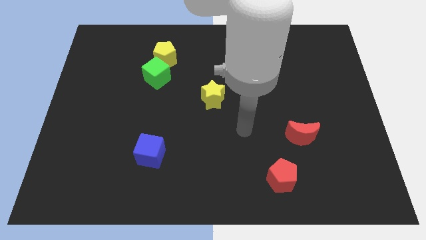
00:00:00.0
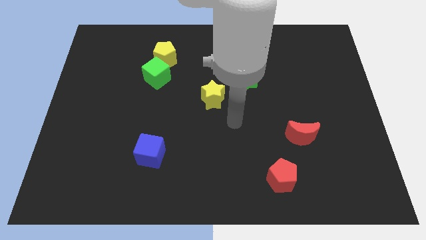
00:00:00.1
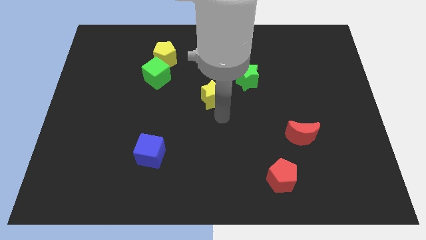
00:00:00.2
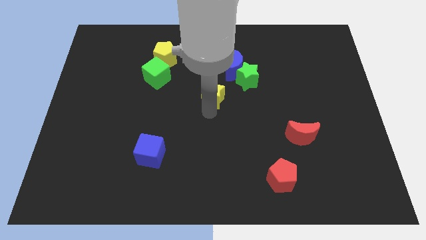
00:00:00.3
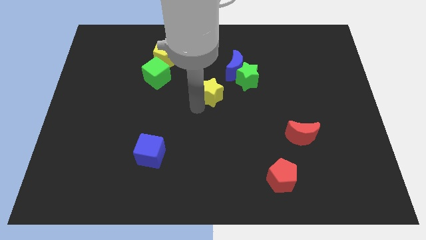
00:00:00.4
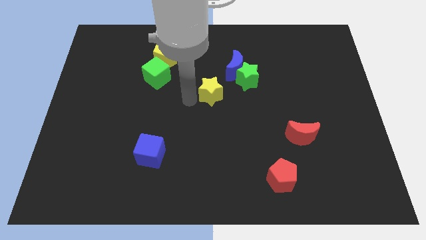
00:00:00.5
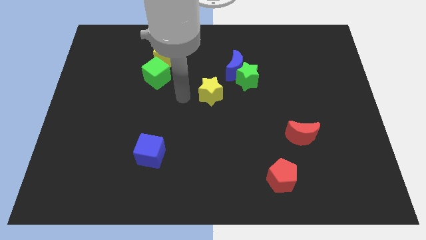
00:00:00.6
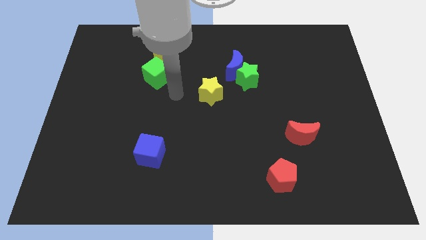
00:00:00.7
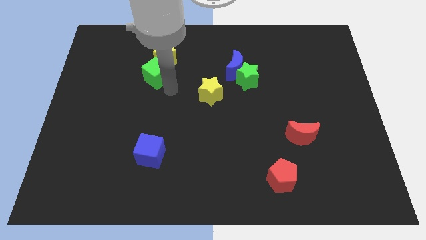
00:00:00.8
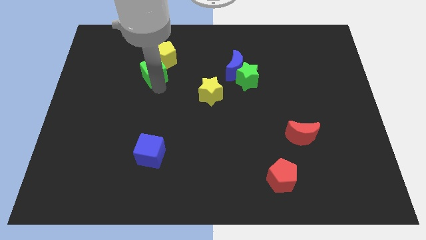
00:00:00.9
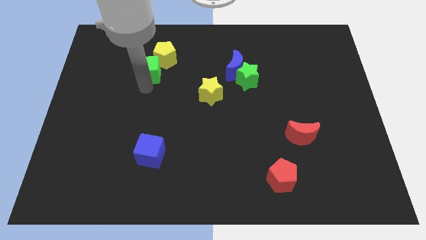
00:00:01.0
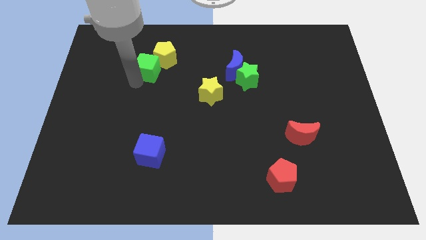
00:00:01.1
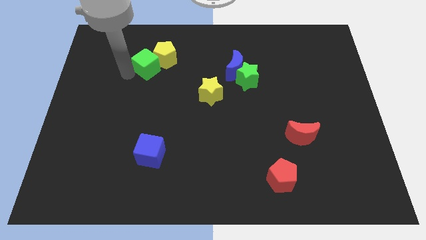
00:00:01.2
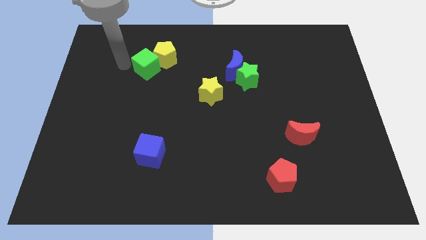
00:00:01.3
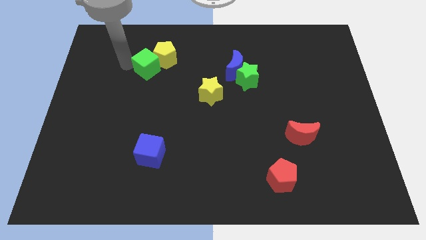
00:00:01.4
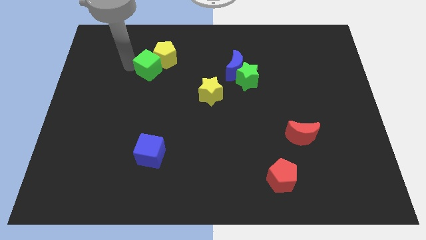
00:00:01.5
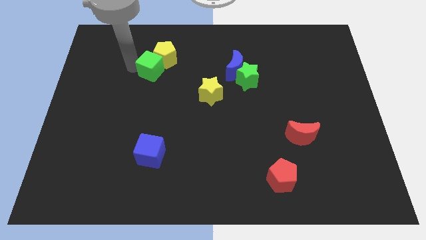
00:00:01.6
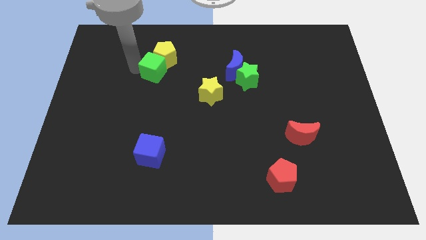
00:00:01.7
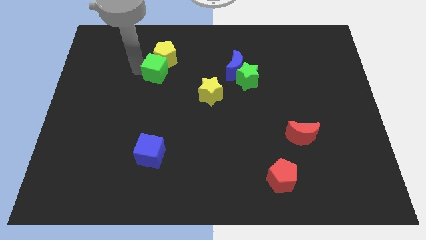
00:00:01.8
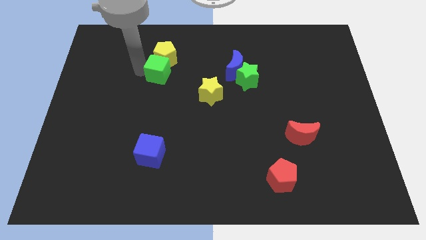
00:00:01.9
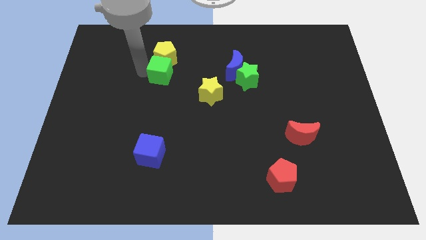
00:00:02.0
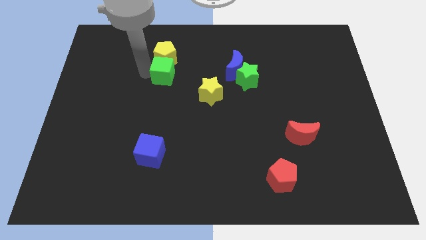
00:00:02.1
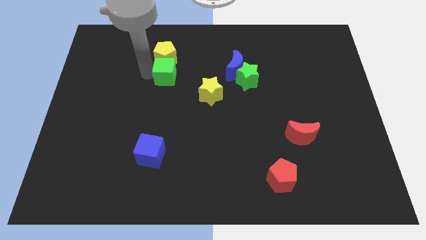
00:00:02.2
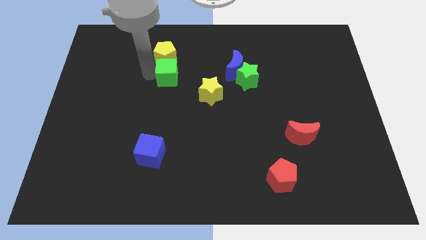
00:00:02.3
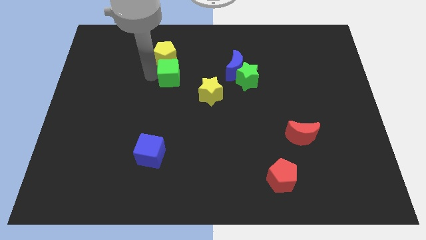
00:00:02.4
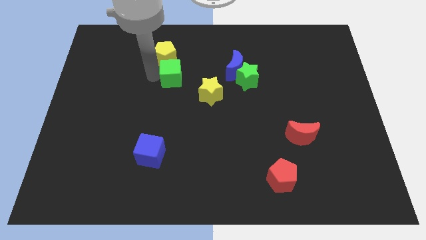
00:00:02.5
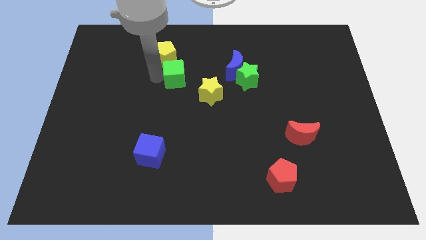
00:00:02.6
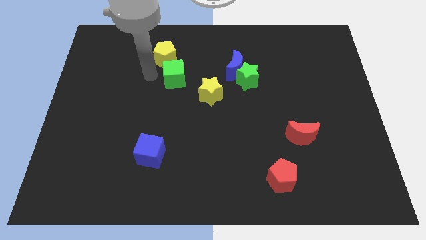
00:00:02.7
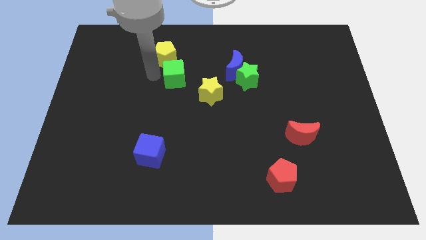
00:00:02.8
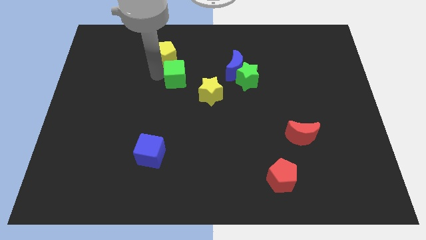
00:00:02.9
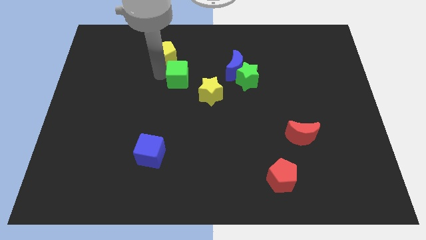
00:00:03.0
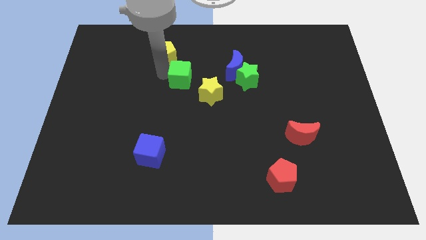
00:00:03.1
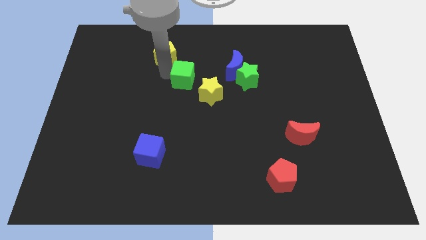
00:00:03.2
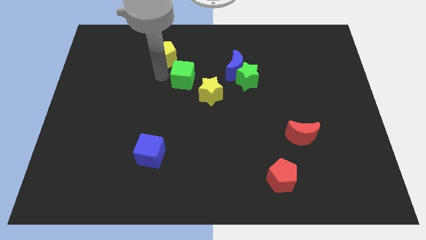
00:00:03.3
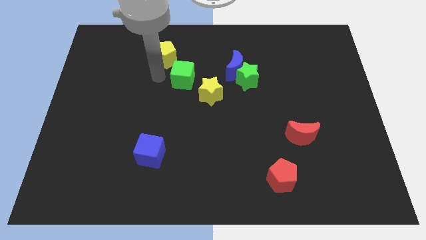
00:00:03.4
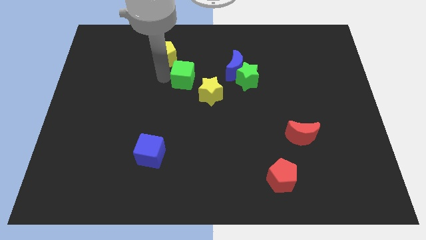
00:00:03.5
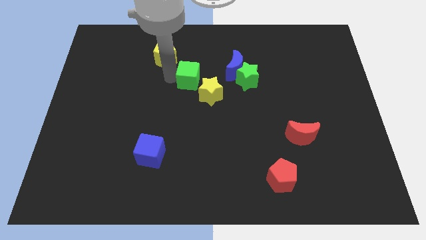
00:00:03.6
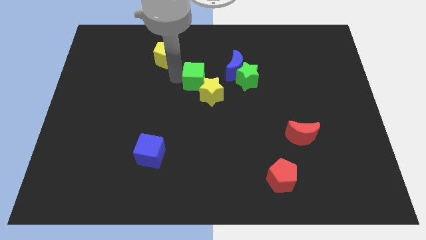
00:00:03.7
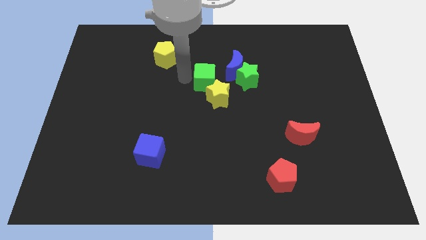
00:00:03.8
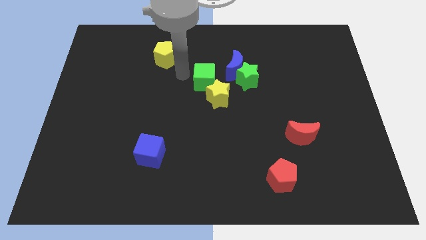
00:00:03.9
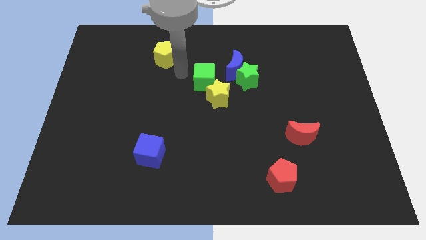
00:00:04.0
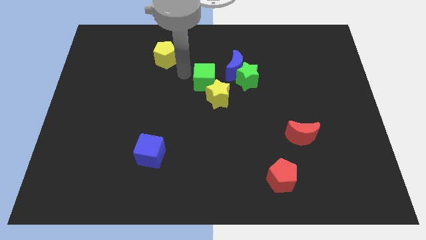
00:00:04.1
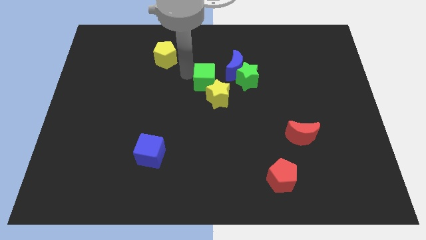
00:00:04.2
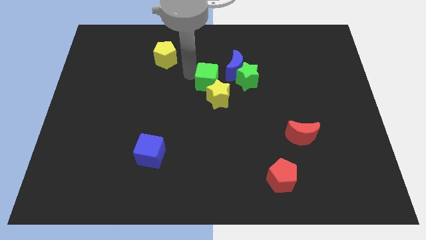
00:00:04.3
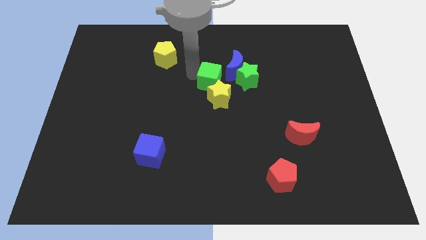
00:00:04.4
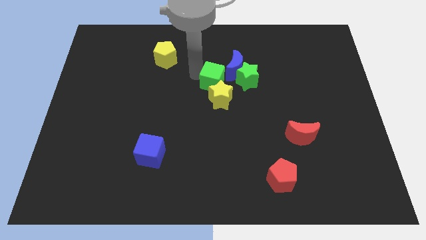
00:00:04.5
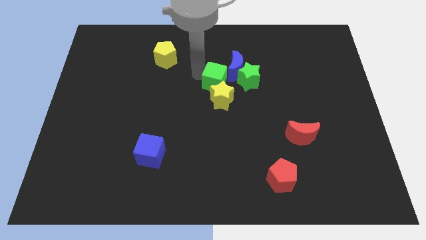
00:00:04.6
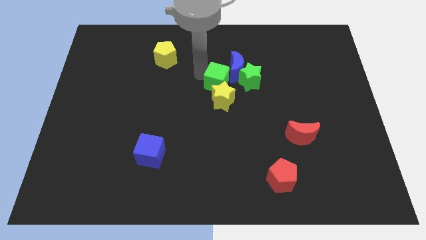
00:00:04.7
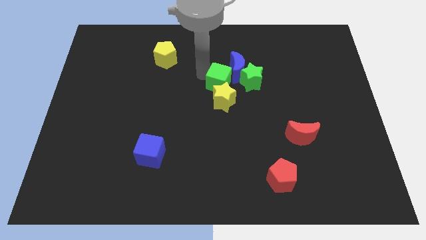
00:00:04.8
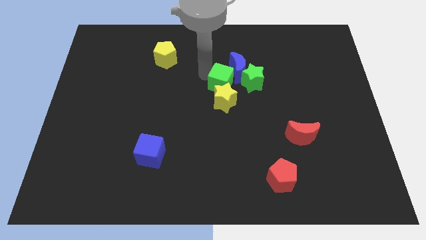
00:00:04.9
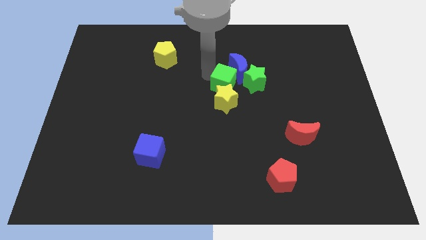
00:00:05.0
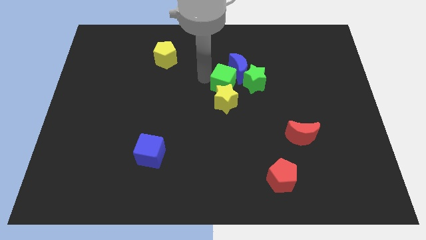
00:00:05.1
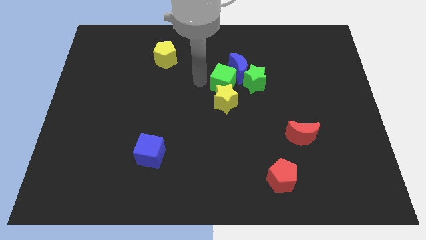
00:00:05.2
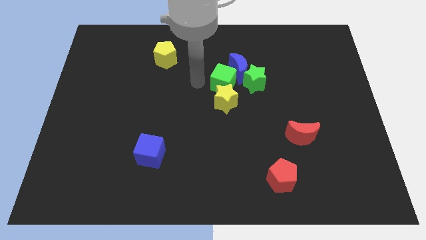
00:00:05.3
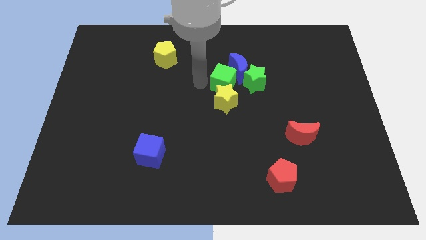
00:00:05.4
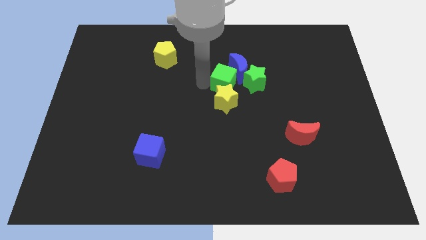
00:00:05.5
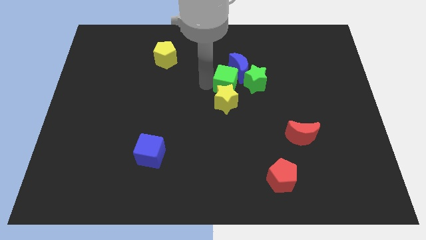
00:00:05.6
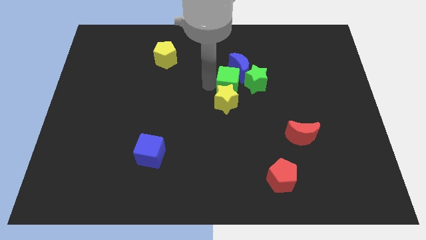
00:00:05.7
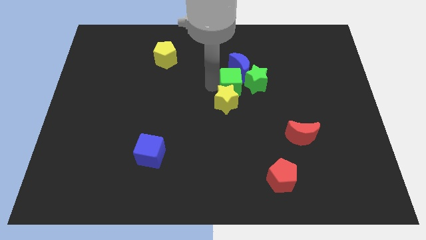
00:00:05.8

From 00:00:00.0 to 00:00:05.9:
push the green cube to the green star
